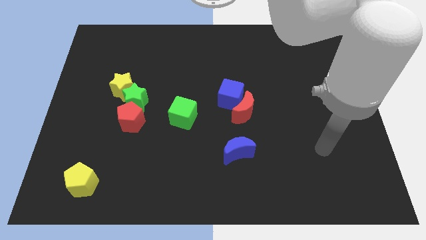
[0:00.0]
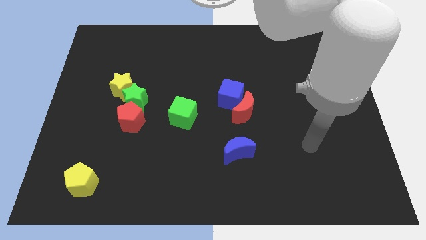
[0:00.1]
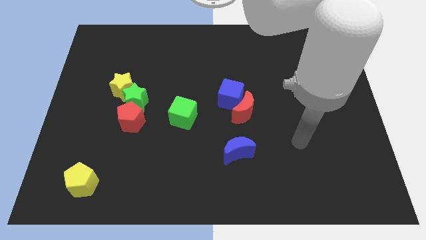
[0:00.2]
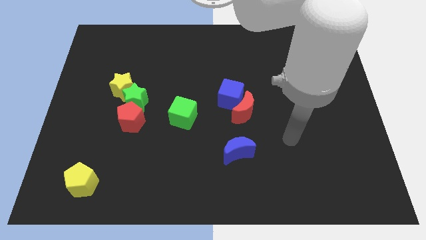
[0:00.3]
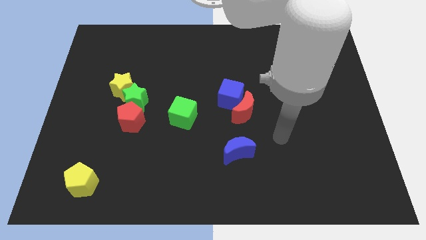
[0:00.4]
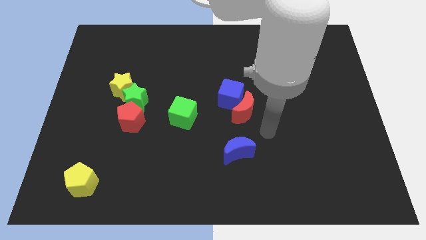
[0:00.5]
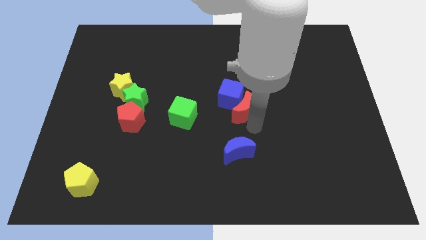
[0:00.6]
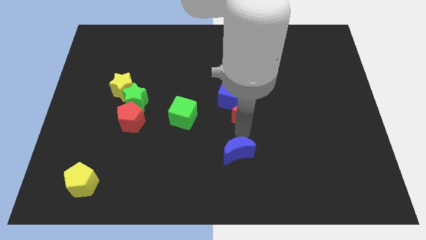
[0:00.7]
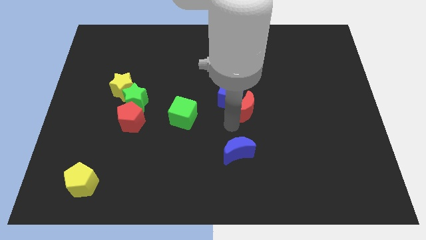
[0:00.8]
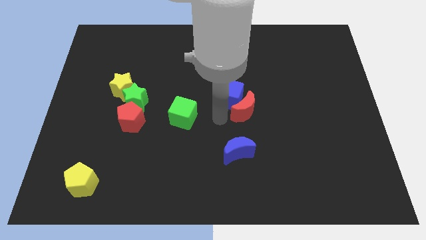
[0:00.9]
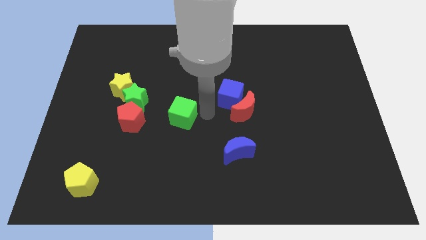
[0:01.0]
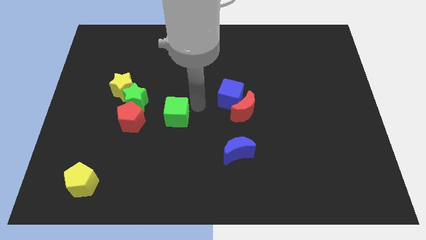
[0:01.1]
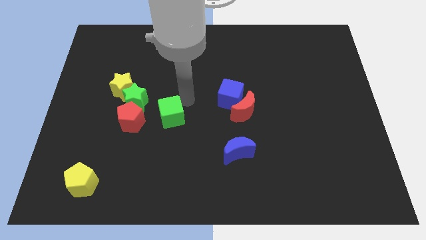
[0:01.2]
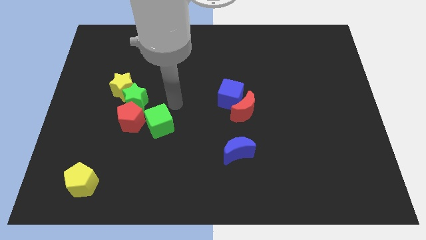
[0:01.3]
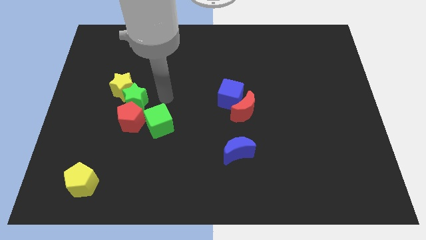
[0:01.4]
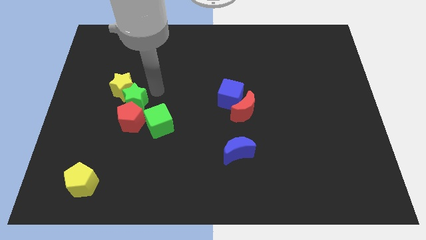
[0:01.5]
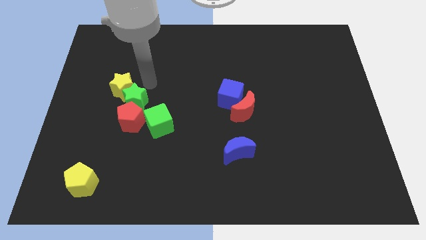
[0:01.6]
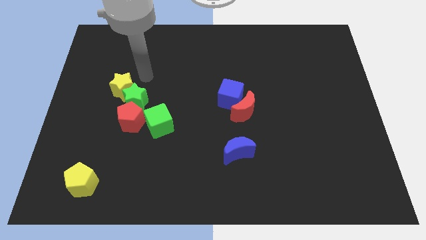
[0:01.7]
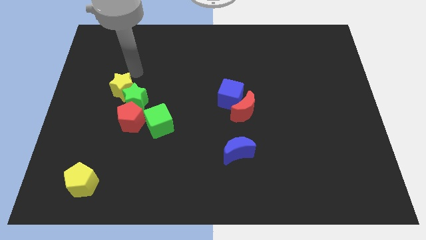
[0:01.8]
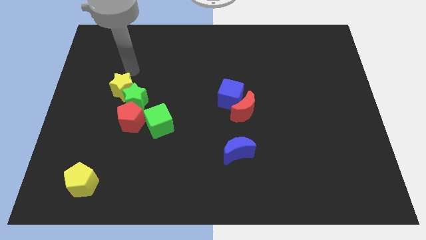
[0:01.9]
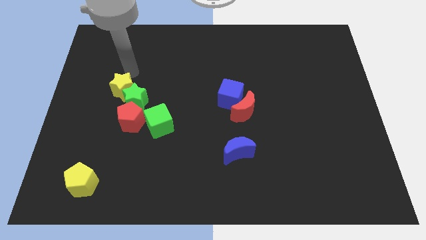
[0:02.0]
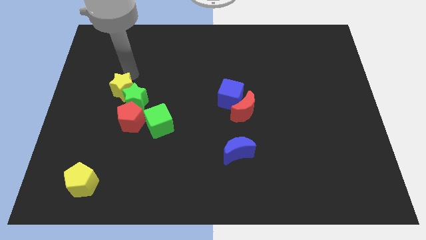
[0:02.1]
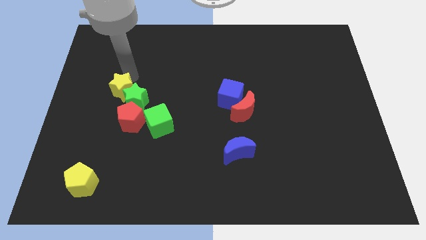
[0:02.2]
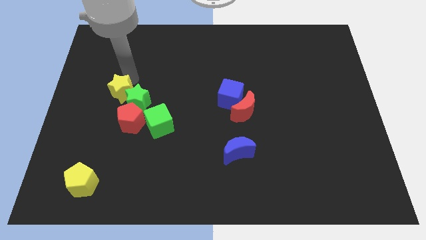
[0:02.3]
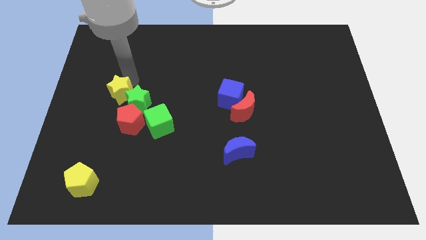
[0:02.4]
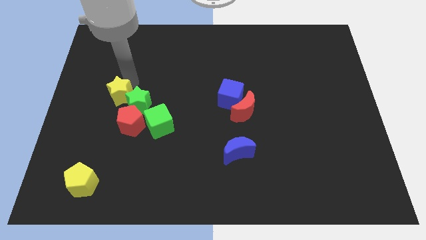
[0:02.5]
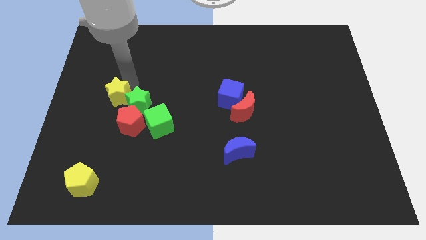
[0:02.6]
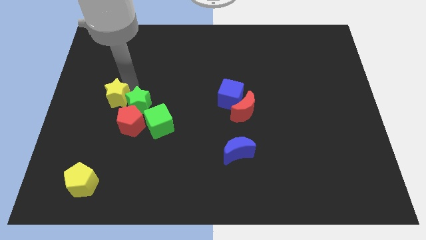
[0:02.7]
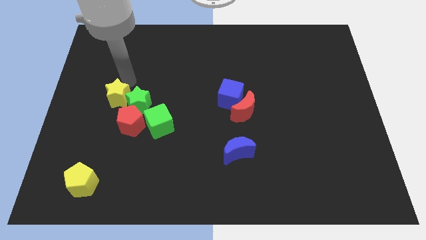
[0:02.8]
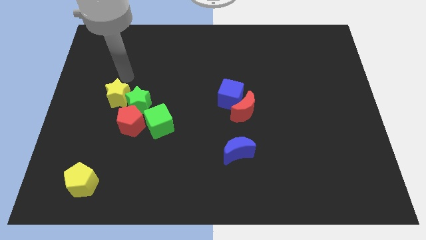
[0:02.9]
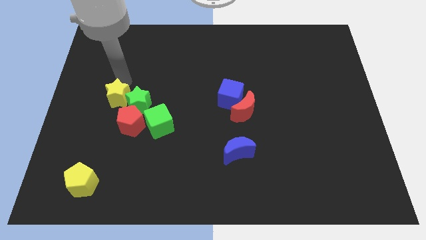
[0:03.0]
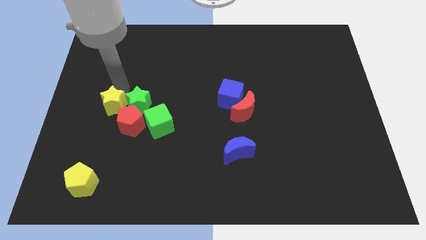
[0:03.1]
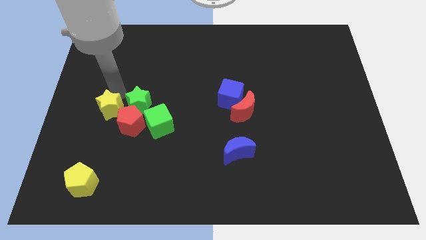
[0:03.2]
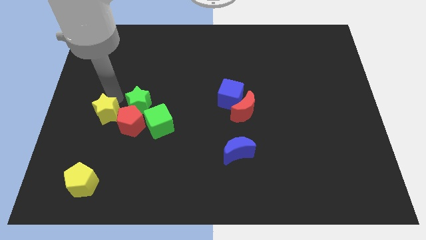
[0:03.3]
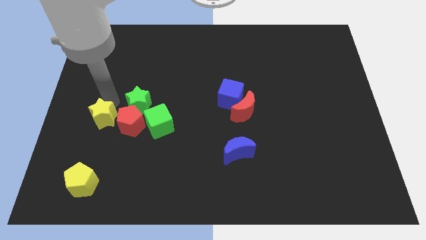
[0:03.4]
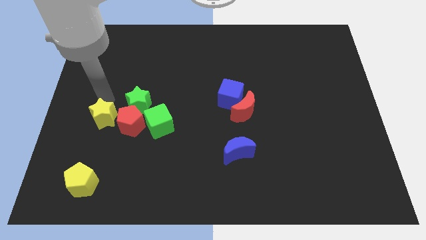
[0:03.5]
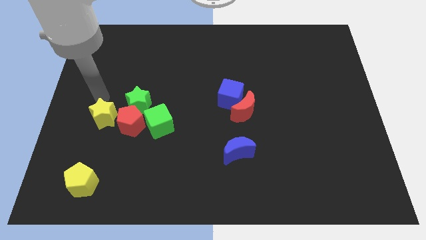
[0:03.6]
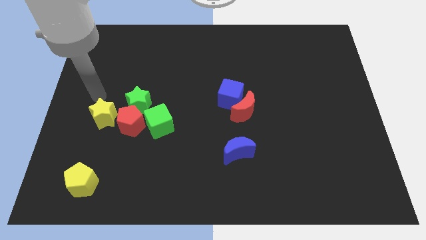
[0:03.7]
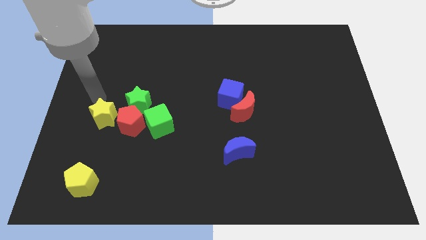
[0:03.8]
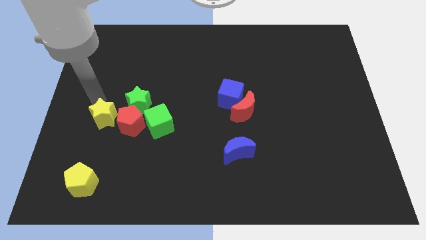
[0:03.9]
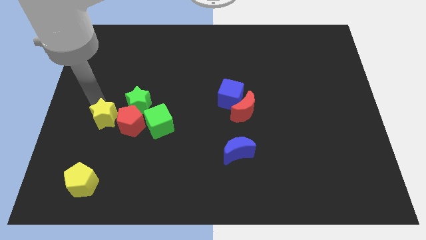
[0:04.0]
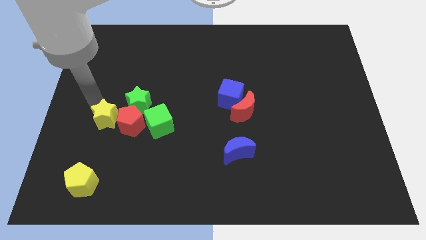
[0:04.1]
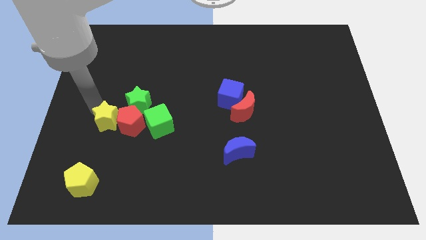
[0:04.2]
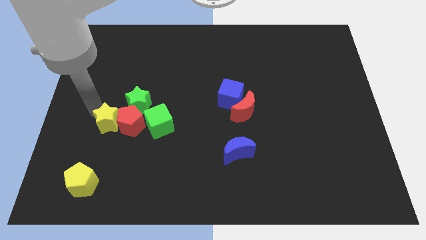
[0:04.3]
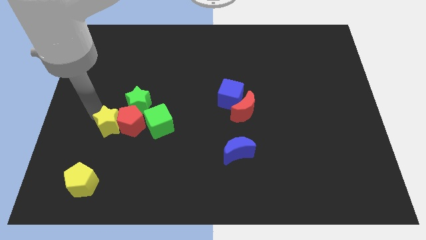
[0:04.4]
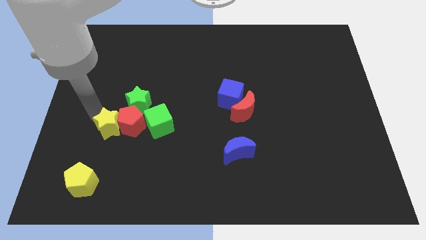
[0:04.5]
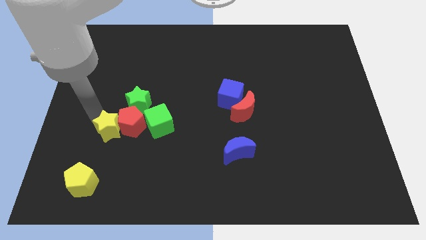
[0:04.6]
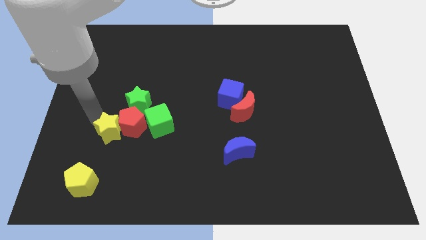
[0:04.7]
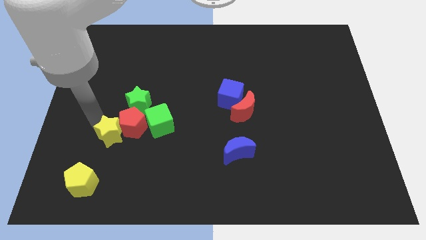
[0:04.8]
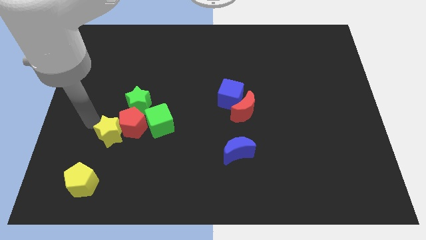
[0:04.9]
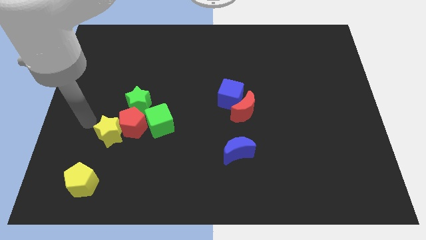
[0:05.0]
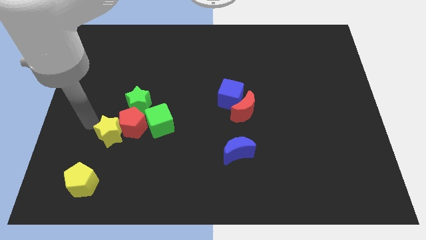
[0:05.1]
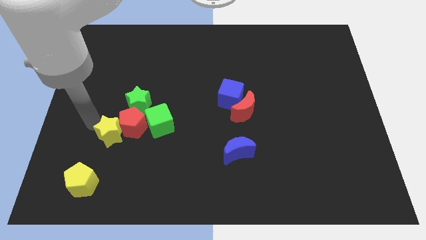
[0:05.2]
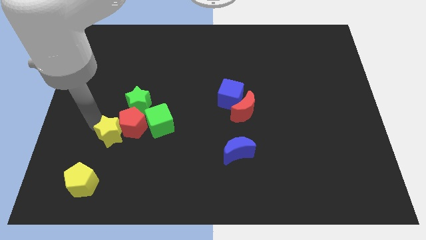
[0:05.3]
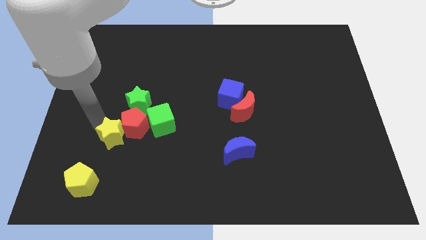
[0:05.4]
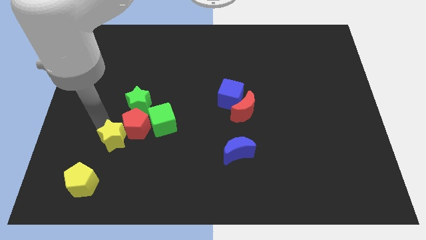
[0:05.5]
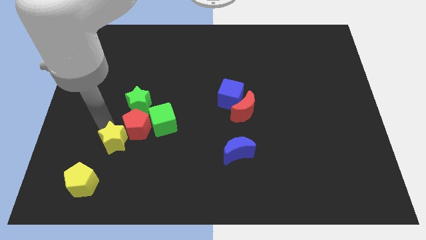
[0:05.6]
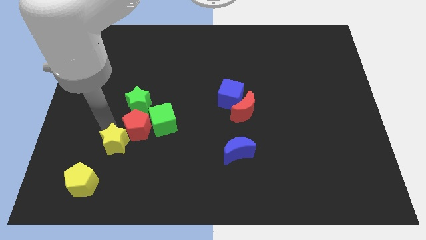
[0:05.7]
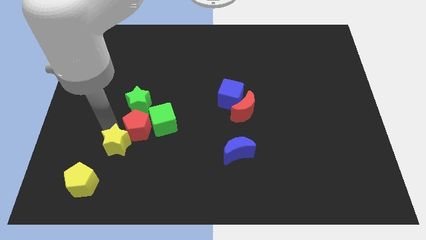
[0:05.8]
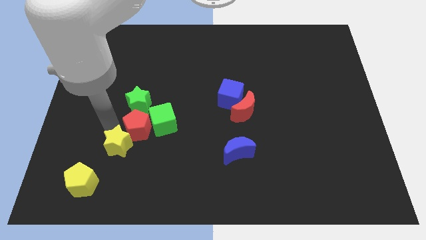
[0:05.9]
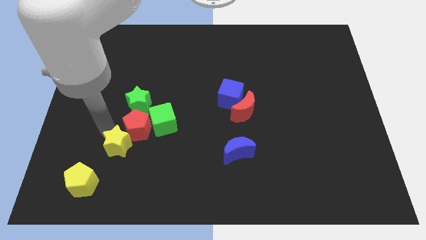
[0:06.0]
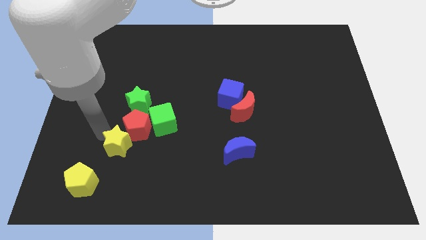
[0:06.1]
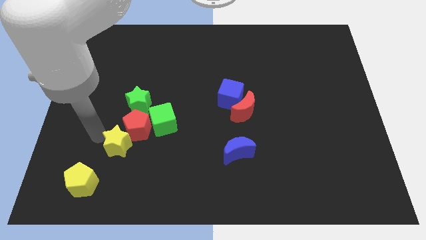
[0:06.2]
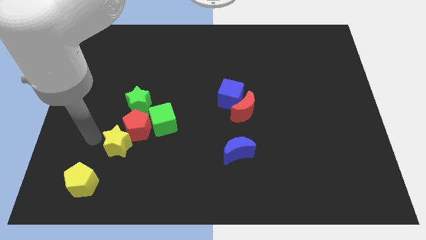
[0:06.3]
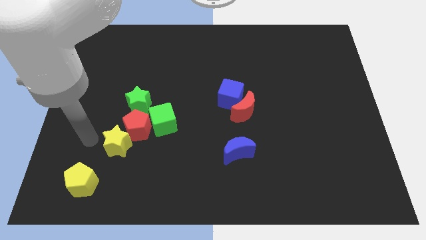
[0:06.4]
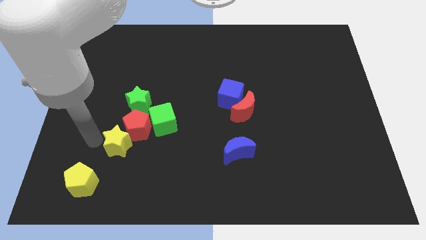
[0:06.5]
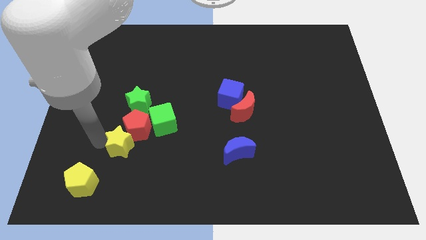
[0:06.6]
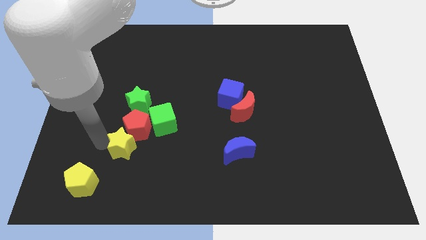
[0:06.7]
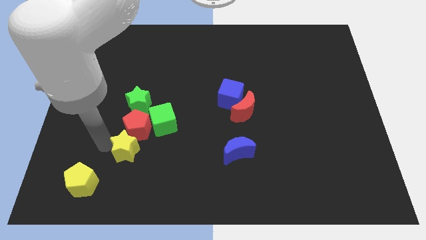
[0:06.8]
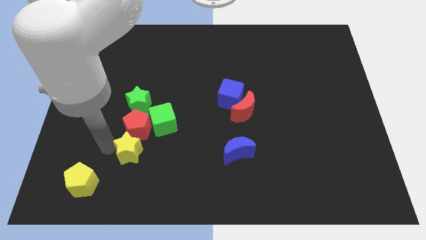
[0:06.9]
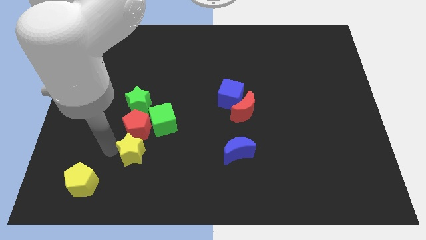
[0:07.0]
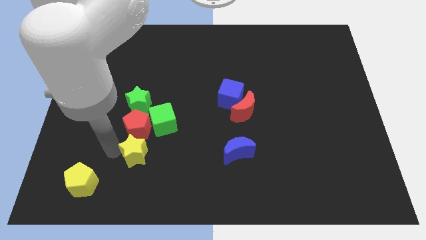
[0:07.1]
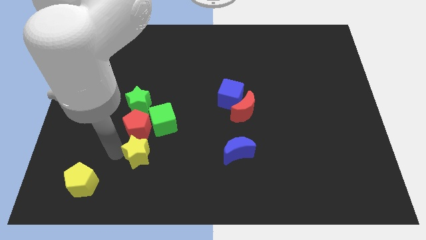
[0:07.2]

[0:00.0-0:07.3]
push the yellow star to the bottom of the green cube
